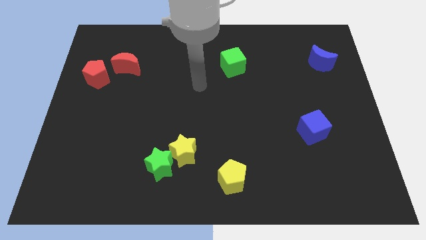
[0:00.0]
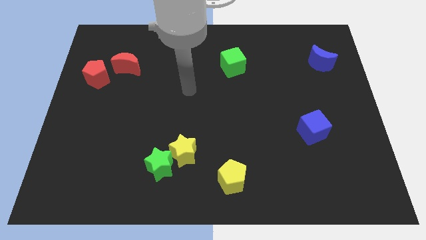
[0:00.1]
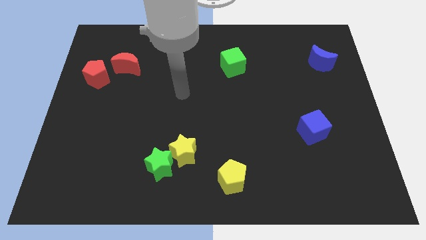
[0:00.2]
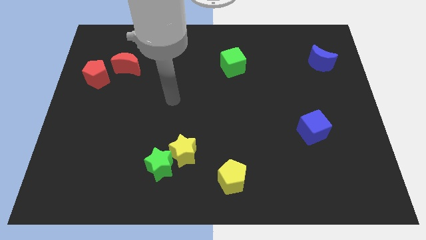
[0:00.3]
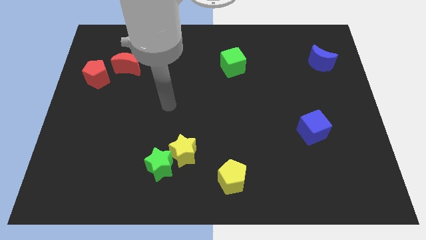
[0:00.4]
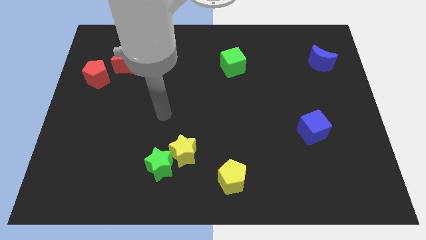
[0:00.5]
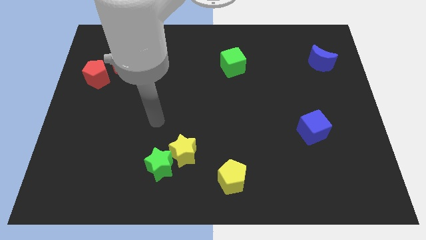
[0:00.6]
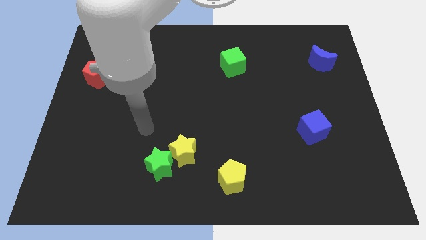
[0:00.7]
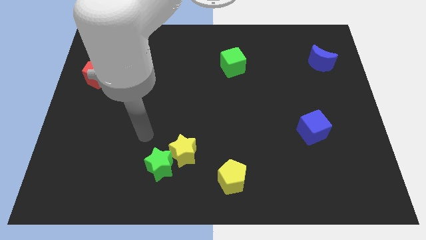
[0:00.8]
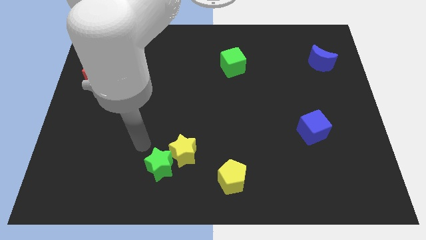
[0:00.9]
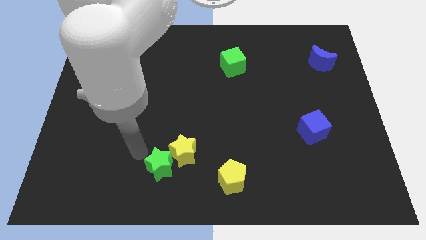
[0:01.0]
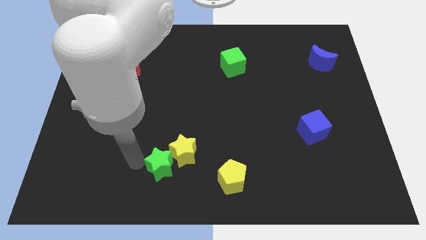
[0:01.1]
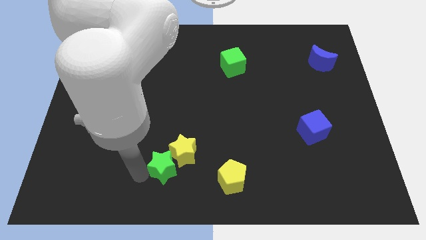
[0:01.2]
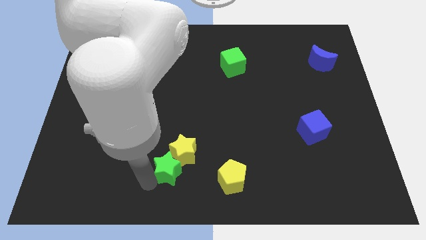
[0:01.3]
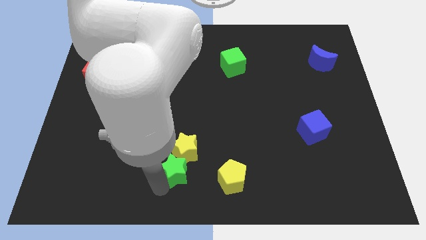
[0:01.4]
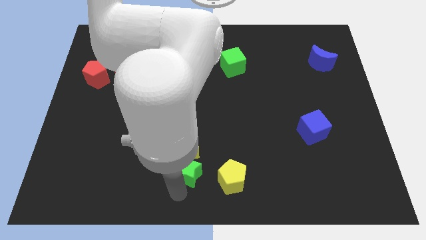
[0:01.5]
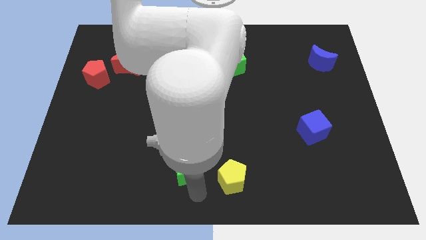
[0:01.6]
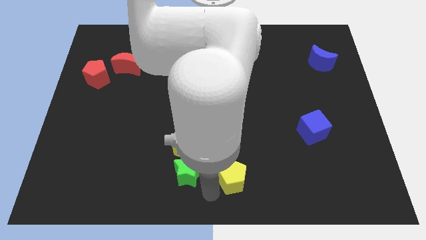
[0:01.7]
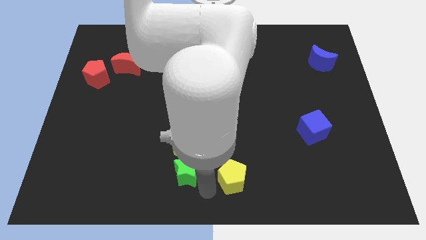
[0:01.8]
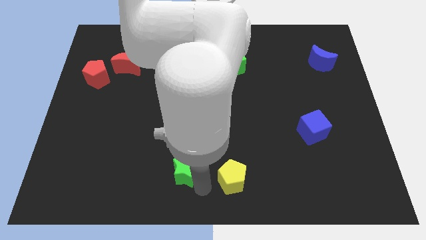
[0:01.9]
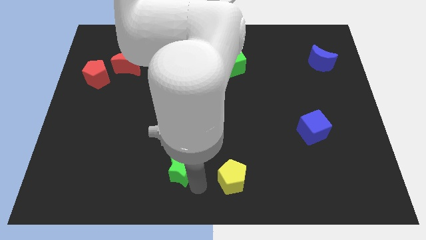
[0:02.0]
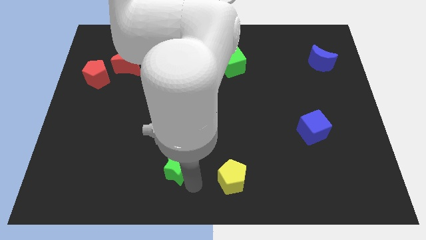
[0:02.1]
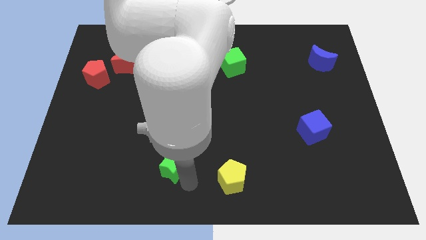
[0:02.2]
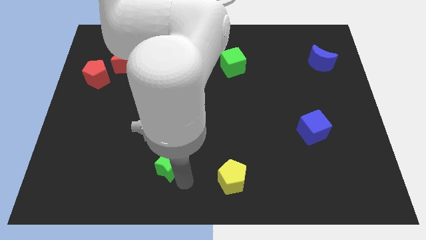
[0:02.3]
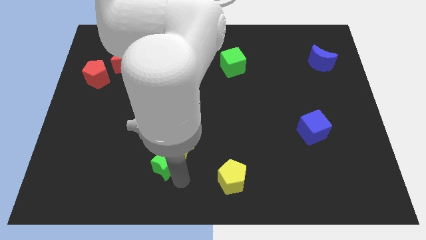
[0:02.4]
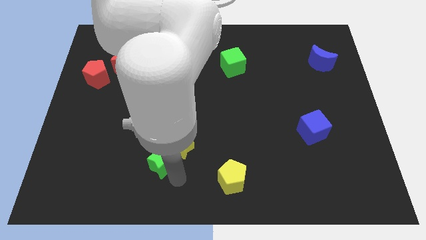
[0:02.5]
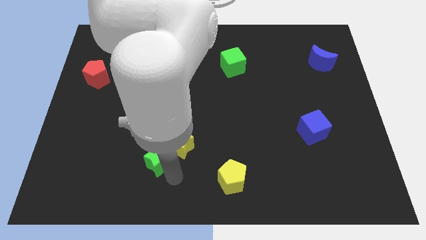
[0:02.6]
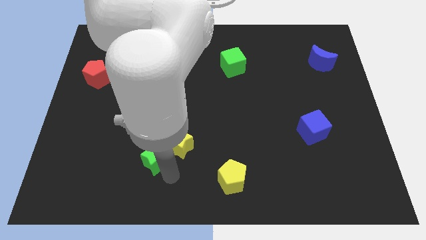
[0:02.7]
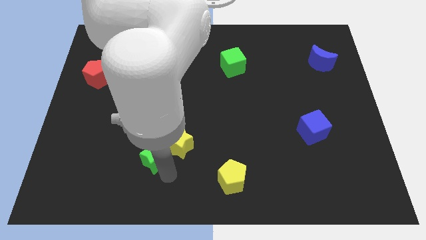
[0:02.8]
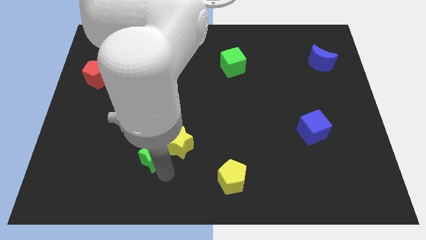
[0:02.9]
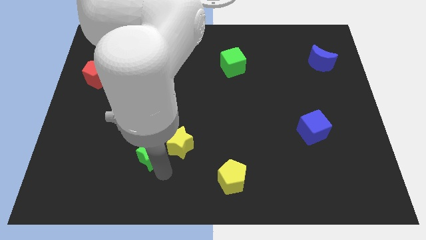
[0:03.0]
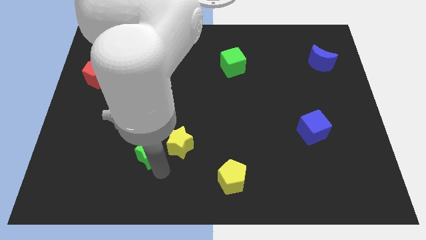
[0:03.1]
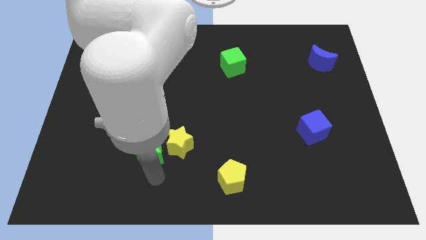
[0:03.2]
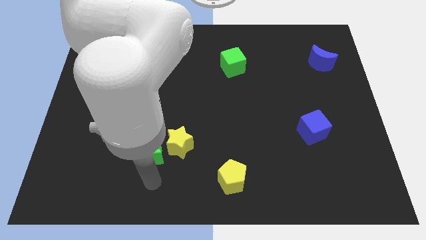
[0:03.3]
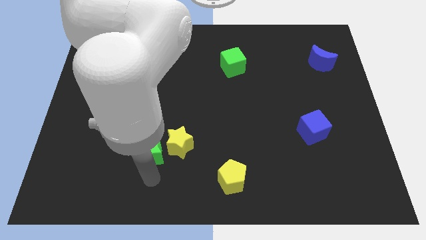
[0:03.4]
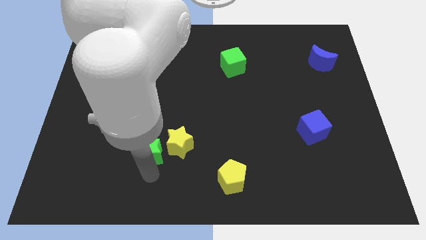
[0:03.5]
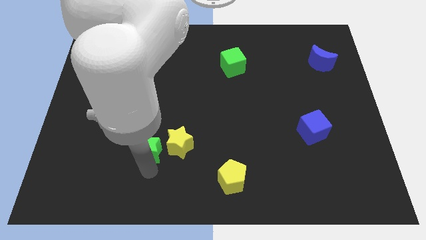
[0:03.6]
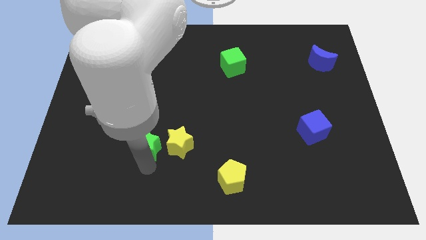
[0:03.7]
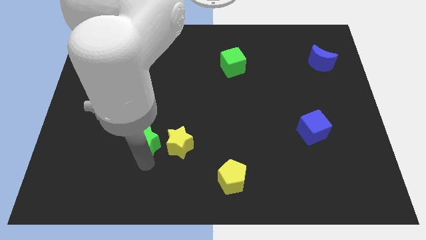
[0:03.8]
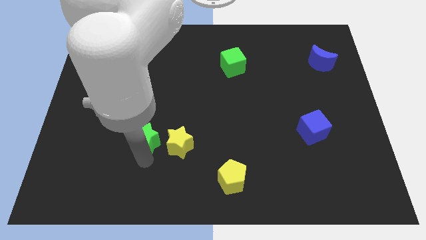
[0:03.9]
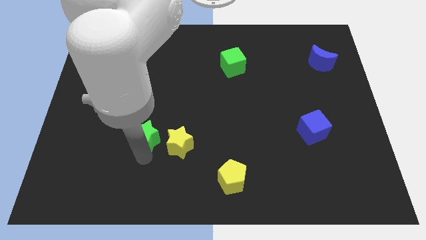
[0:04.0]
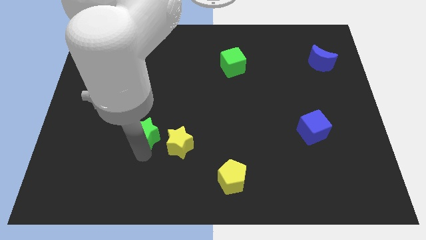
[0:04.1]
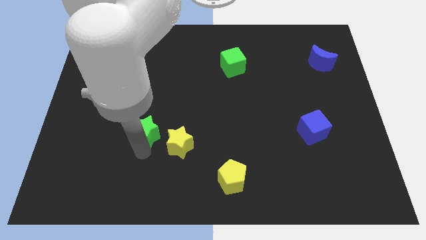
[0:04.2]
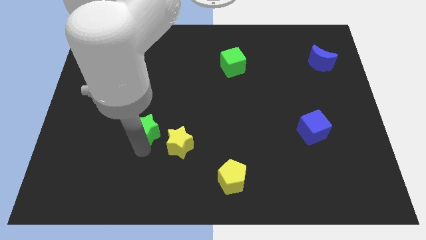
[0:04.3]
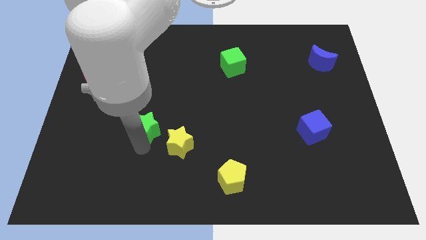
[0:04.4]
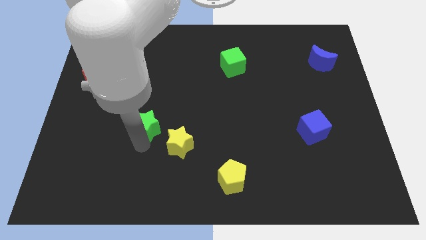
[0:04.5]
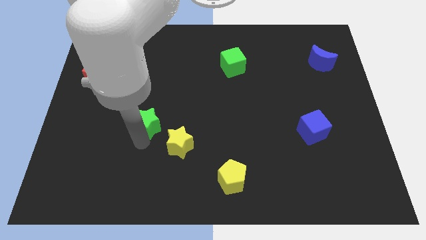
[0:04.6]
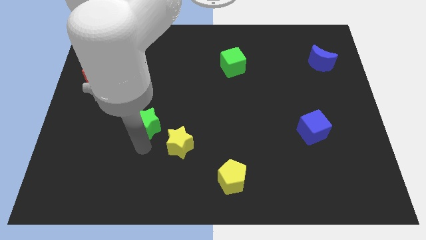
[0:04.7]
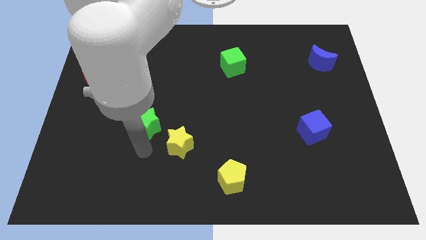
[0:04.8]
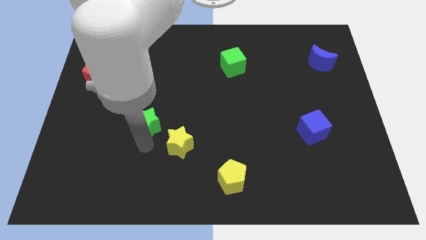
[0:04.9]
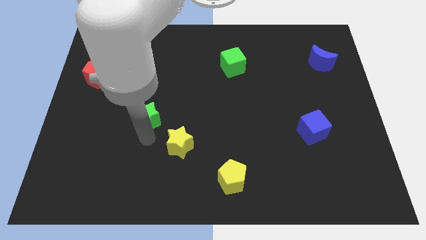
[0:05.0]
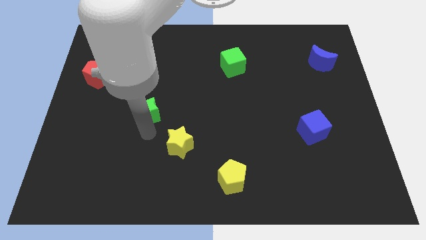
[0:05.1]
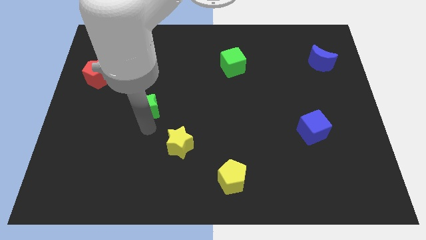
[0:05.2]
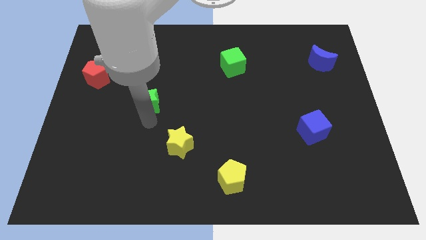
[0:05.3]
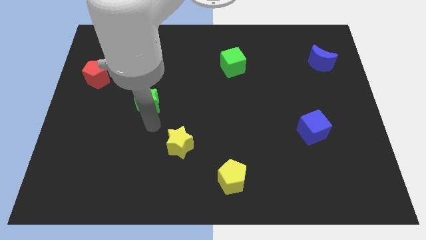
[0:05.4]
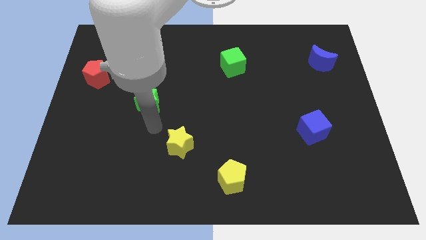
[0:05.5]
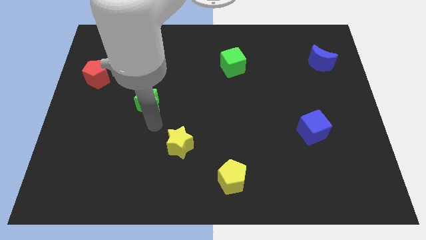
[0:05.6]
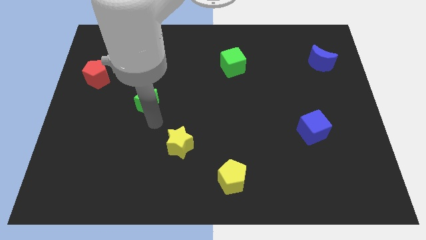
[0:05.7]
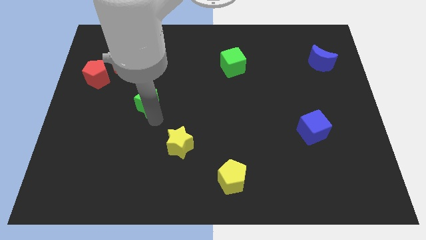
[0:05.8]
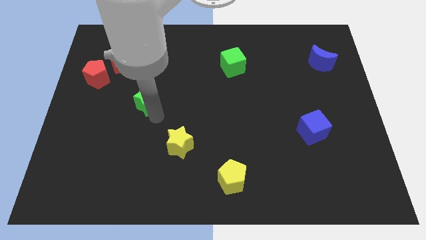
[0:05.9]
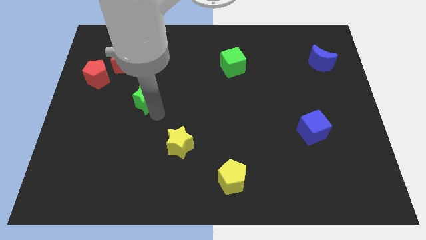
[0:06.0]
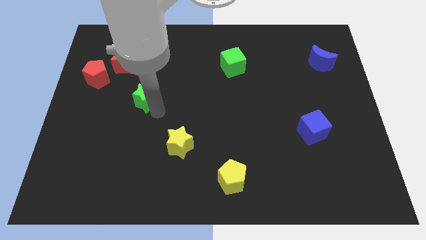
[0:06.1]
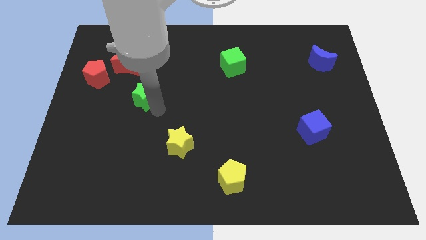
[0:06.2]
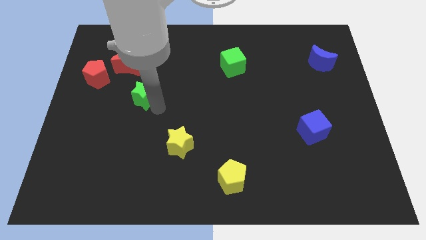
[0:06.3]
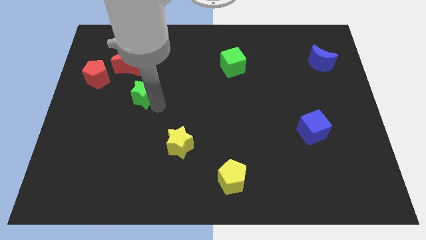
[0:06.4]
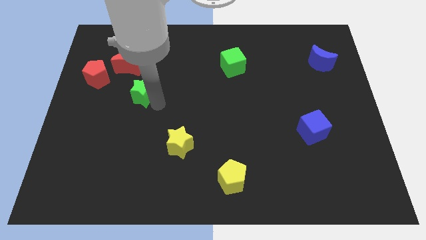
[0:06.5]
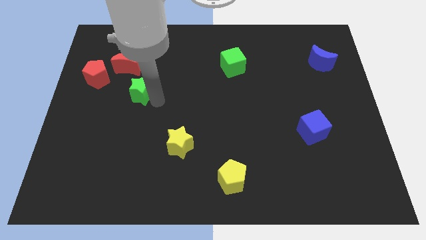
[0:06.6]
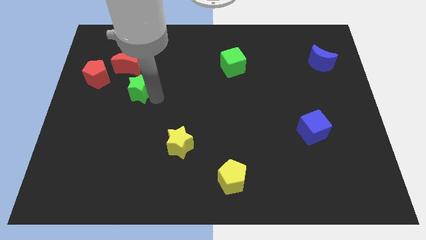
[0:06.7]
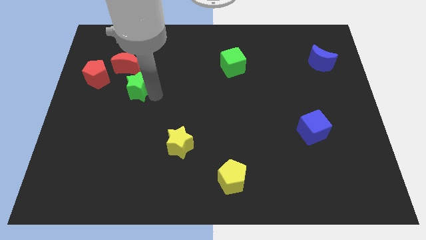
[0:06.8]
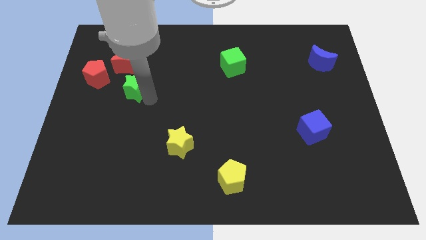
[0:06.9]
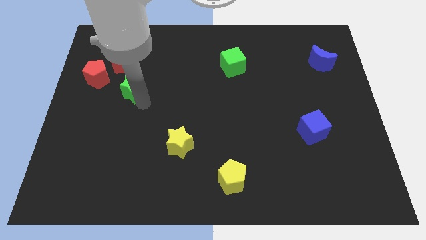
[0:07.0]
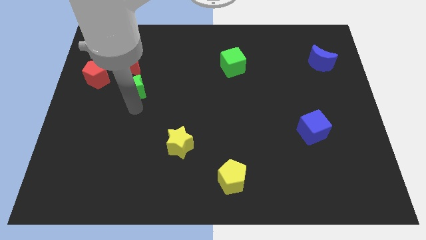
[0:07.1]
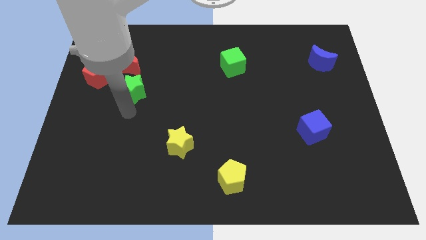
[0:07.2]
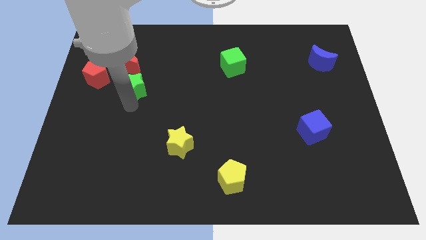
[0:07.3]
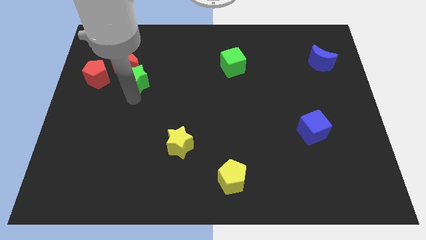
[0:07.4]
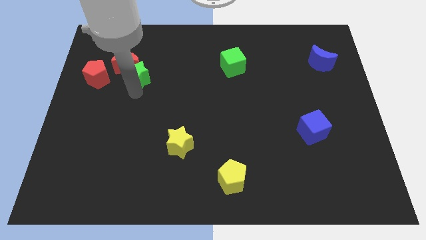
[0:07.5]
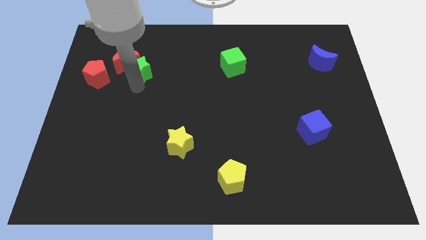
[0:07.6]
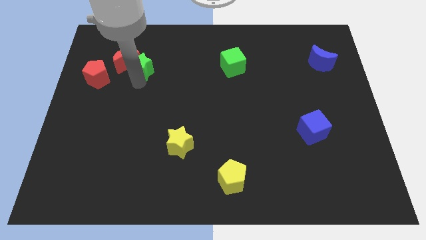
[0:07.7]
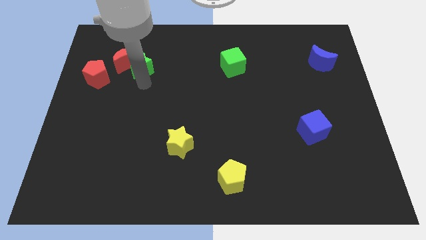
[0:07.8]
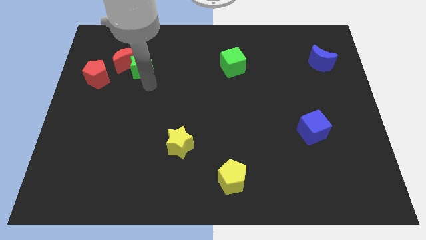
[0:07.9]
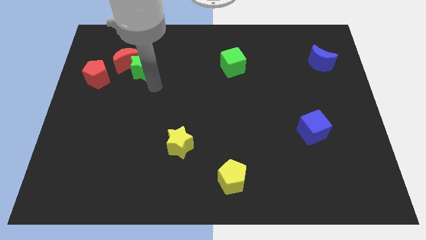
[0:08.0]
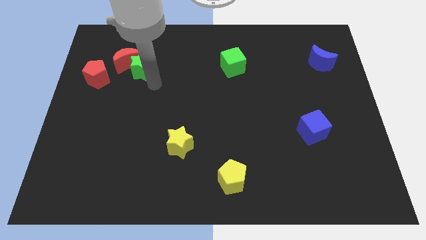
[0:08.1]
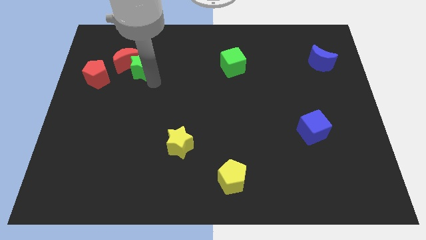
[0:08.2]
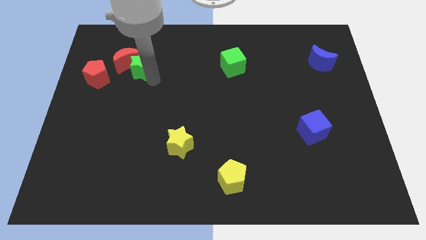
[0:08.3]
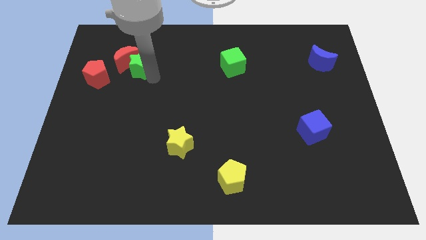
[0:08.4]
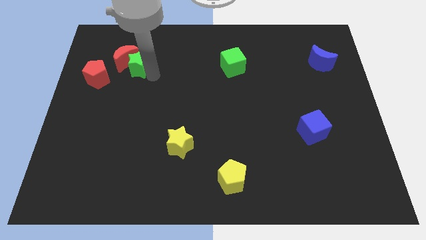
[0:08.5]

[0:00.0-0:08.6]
slide the green star to the top right side of the red pentagon
